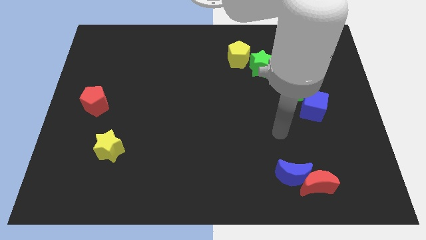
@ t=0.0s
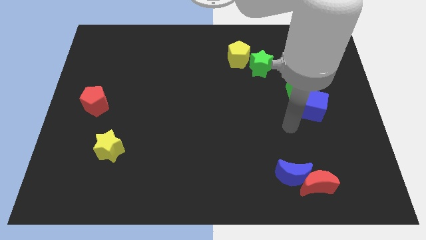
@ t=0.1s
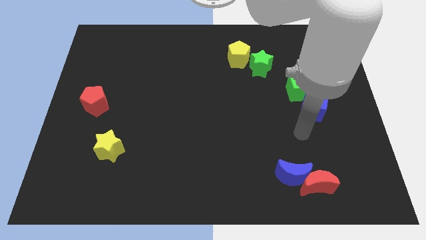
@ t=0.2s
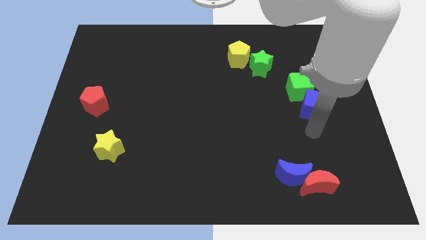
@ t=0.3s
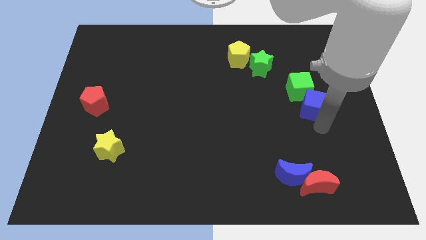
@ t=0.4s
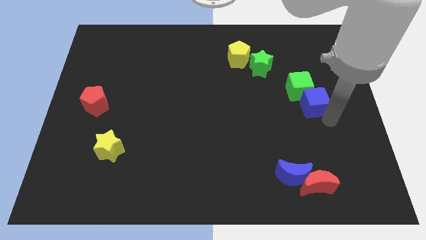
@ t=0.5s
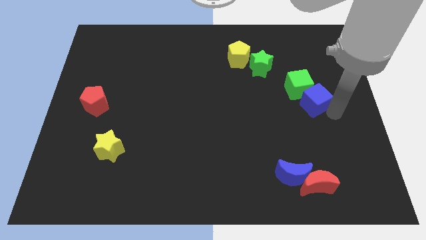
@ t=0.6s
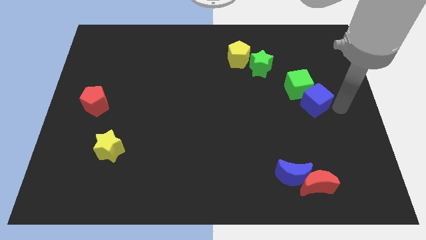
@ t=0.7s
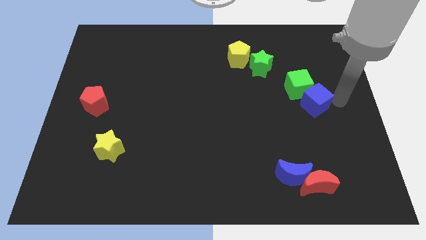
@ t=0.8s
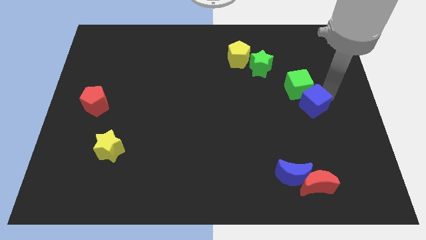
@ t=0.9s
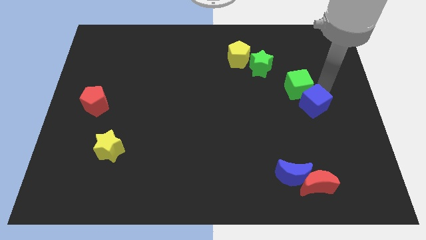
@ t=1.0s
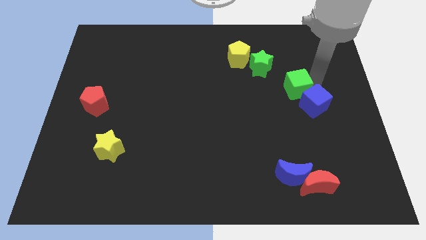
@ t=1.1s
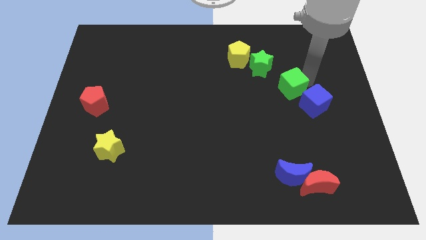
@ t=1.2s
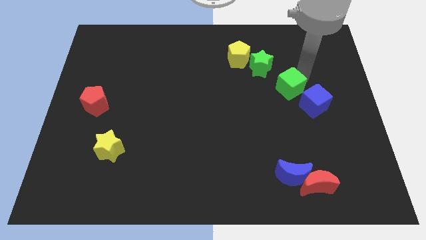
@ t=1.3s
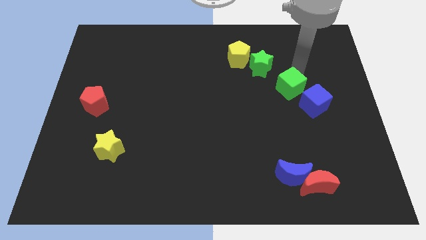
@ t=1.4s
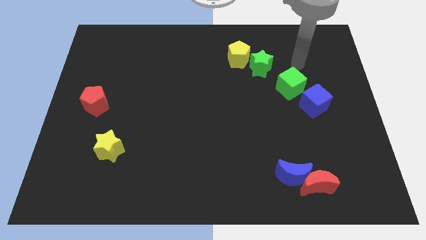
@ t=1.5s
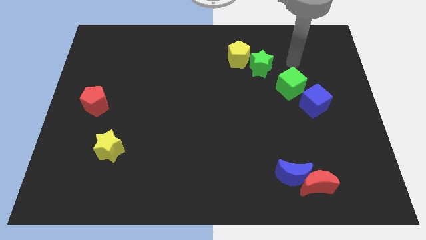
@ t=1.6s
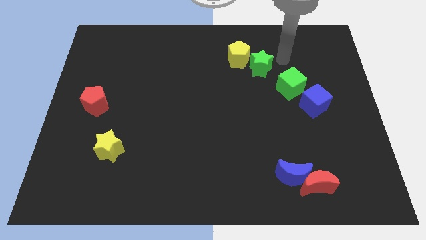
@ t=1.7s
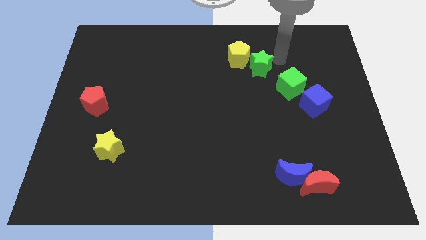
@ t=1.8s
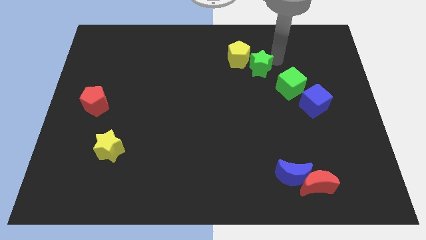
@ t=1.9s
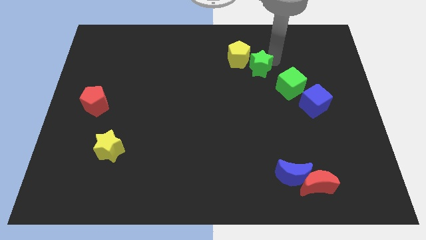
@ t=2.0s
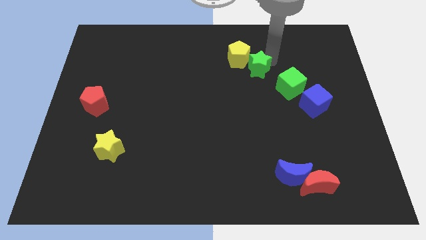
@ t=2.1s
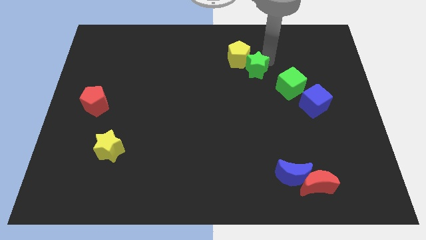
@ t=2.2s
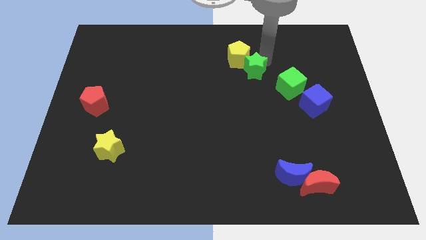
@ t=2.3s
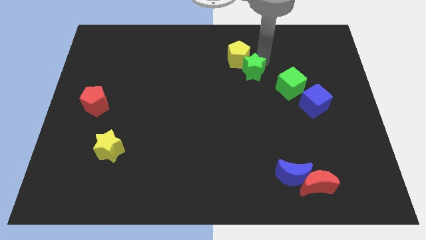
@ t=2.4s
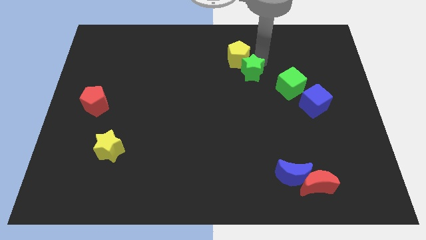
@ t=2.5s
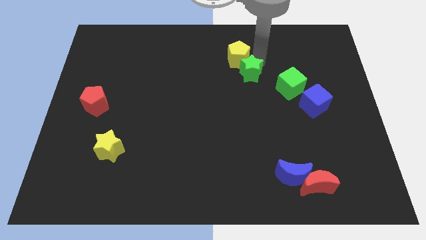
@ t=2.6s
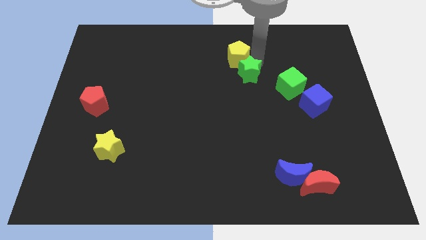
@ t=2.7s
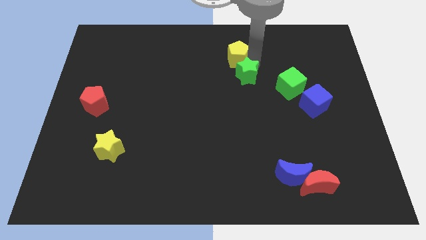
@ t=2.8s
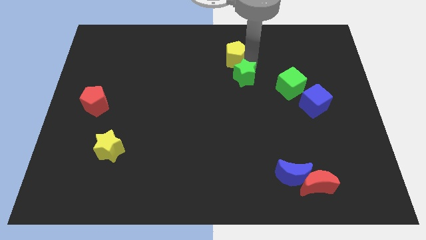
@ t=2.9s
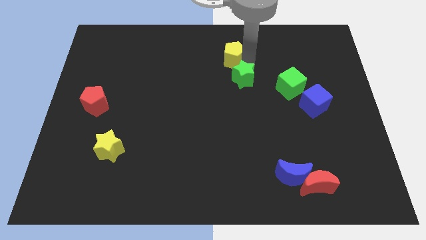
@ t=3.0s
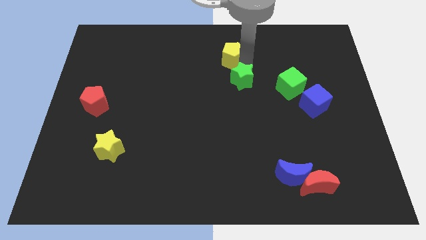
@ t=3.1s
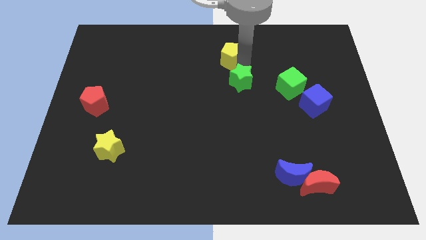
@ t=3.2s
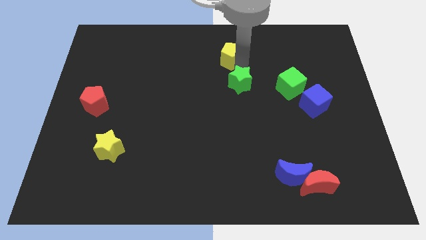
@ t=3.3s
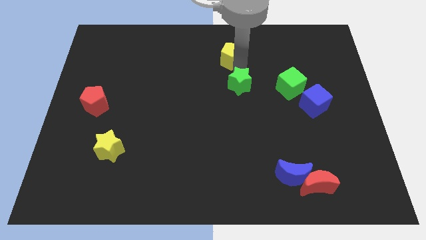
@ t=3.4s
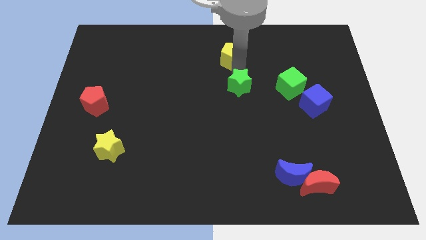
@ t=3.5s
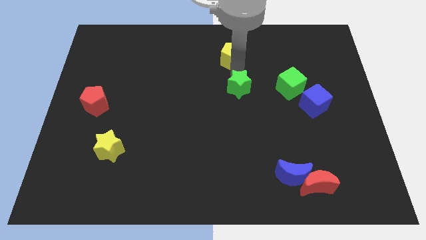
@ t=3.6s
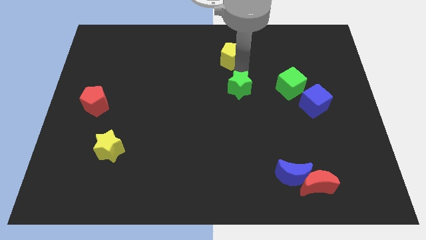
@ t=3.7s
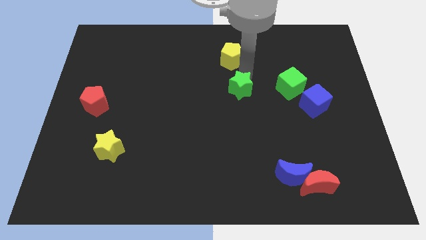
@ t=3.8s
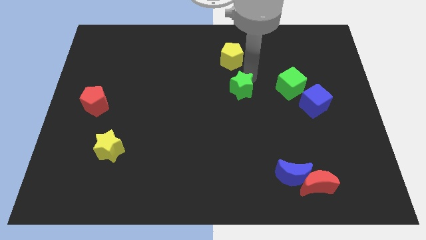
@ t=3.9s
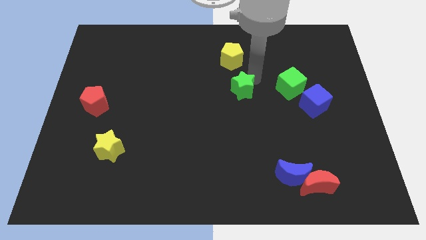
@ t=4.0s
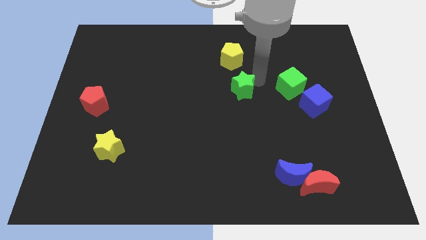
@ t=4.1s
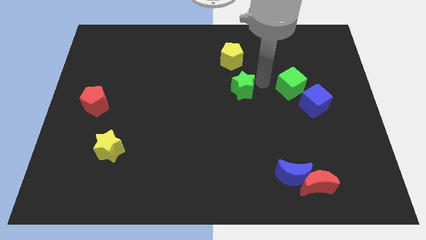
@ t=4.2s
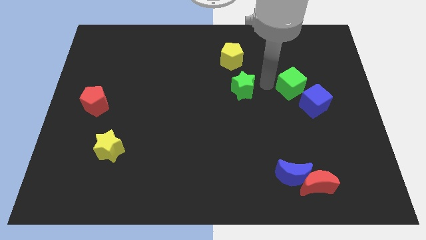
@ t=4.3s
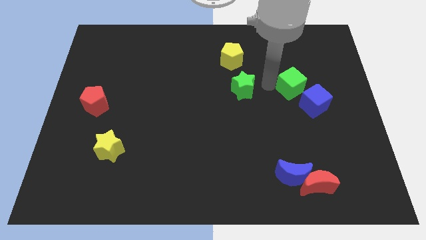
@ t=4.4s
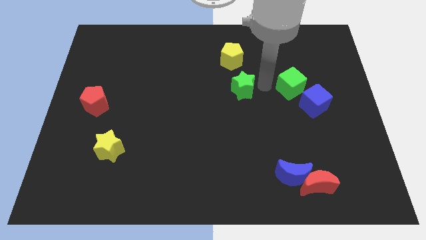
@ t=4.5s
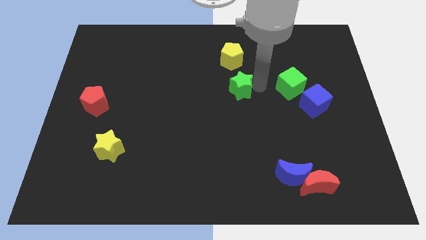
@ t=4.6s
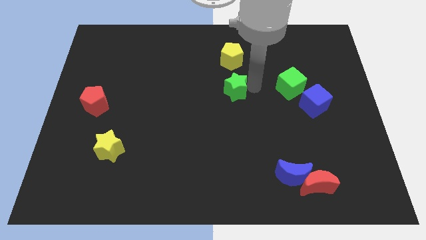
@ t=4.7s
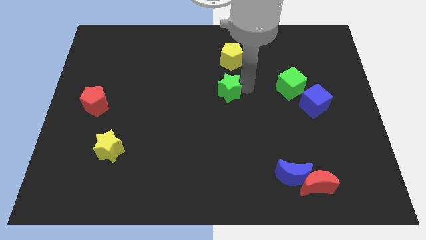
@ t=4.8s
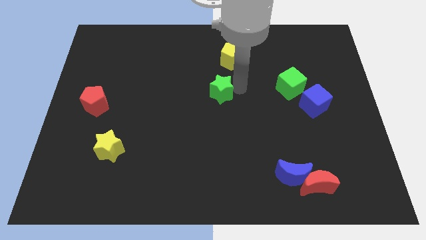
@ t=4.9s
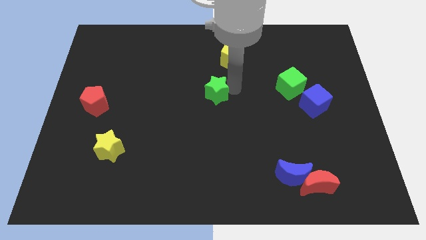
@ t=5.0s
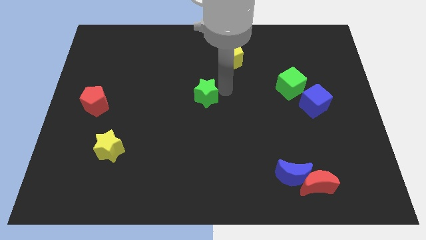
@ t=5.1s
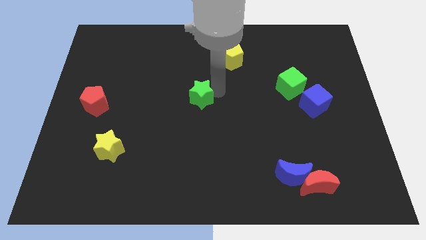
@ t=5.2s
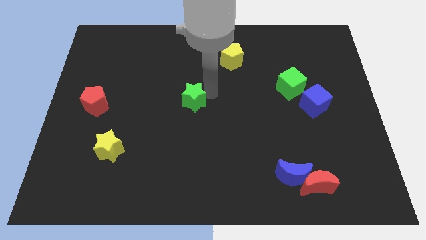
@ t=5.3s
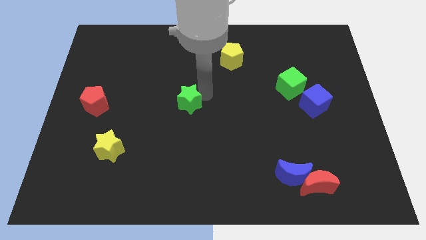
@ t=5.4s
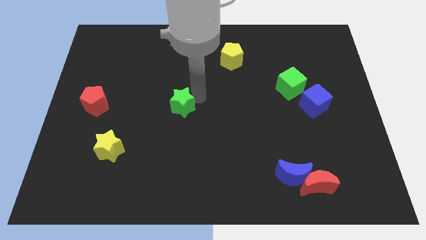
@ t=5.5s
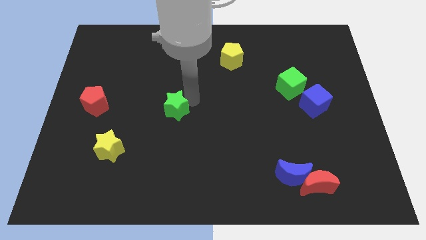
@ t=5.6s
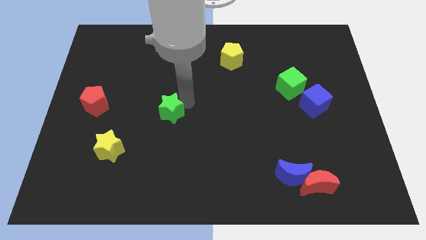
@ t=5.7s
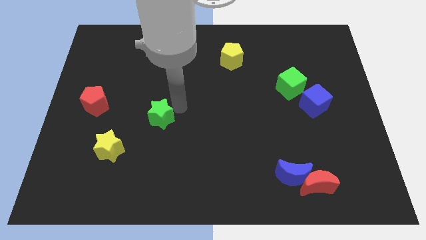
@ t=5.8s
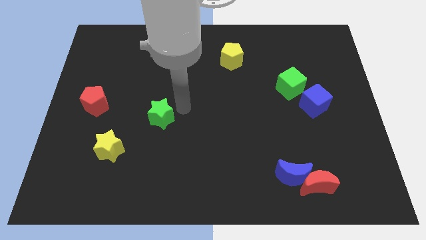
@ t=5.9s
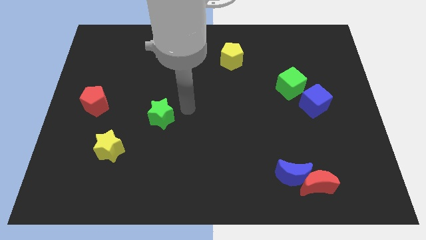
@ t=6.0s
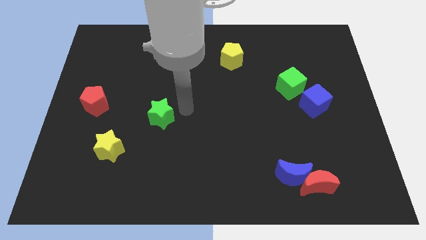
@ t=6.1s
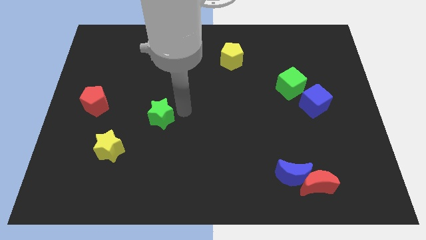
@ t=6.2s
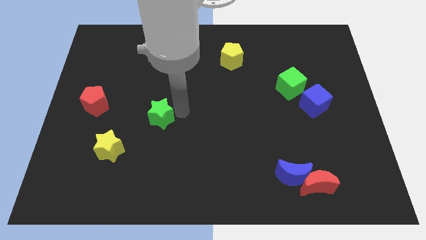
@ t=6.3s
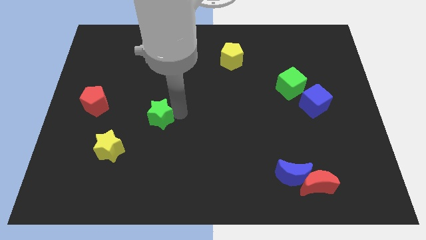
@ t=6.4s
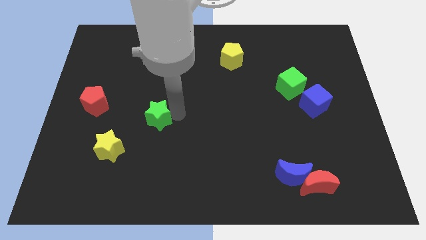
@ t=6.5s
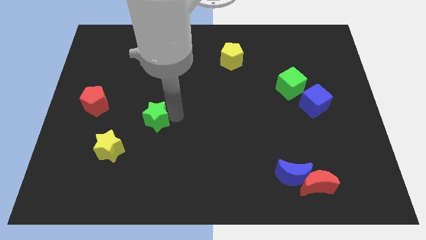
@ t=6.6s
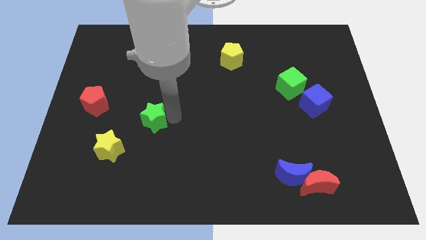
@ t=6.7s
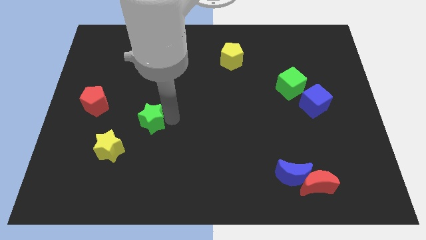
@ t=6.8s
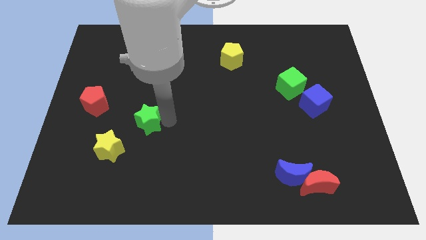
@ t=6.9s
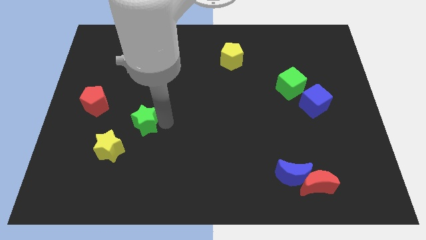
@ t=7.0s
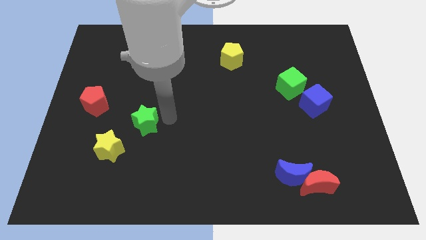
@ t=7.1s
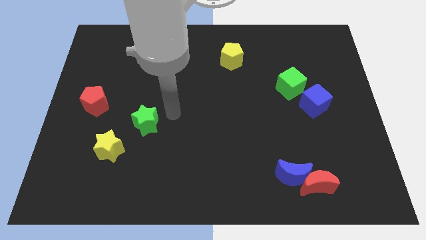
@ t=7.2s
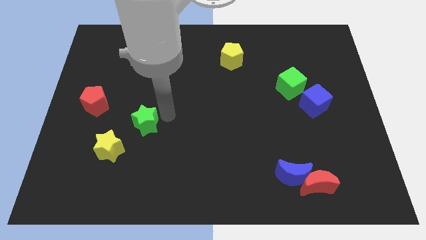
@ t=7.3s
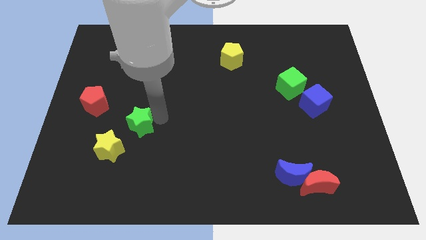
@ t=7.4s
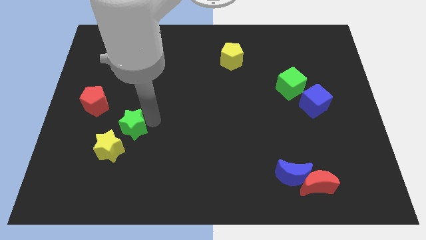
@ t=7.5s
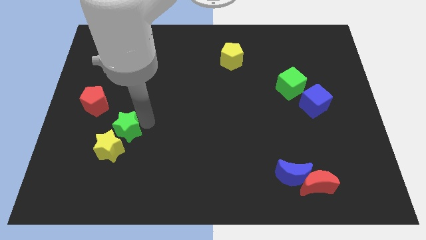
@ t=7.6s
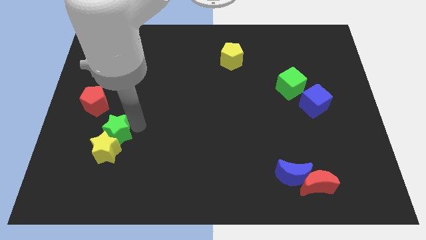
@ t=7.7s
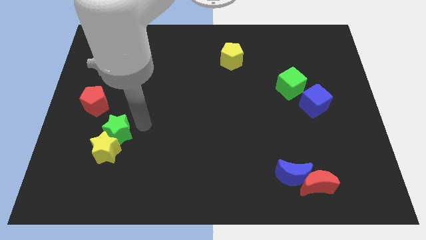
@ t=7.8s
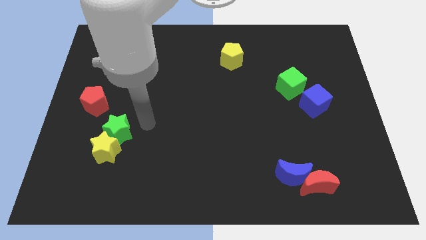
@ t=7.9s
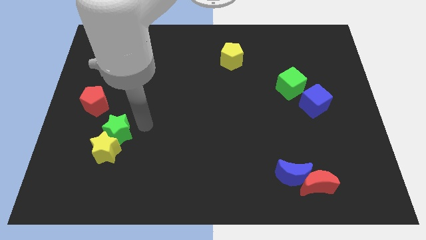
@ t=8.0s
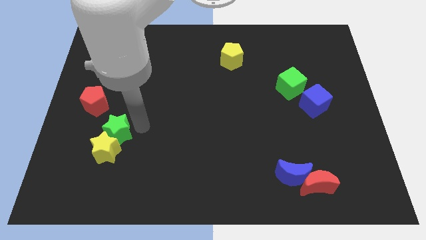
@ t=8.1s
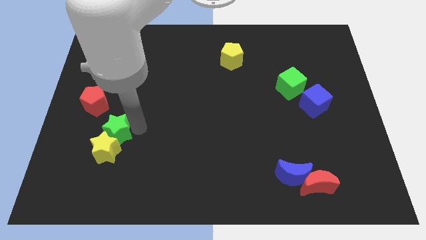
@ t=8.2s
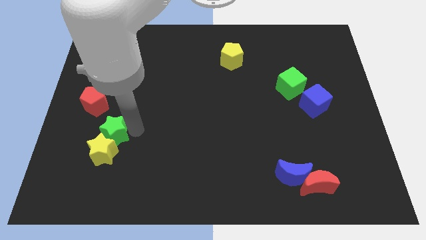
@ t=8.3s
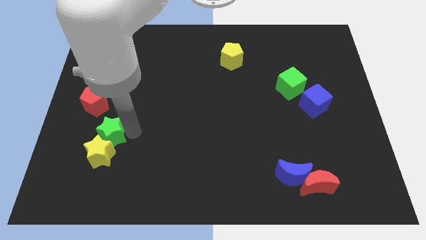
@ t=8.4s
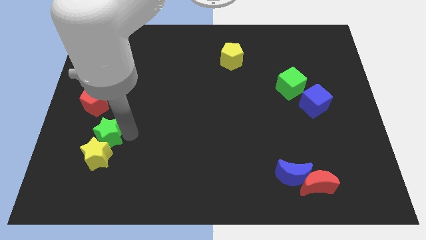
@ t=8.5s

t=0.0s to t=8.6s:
slide the green star to the bottom side of the red pentagon
